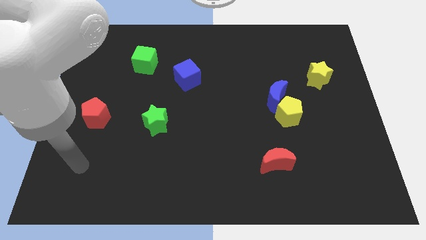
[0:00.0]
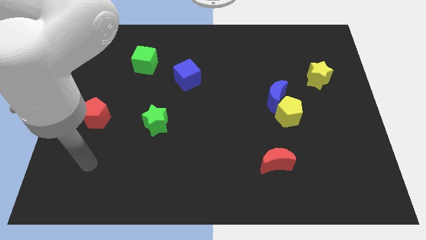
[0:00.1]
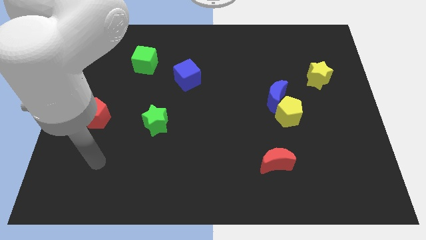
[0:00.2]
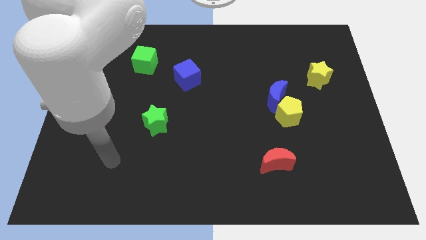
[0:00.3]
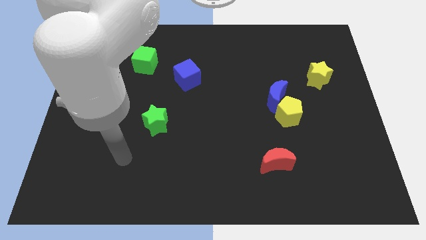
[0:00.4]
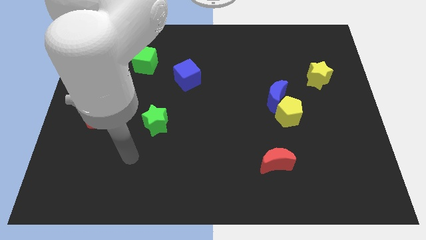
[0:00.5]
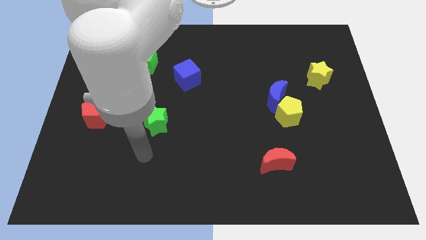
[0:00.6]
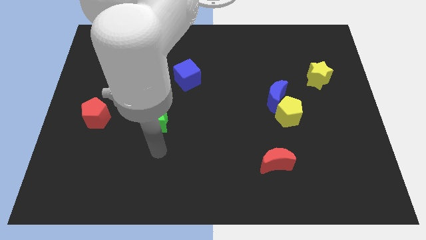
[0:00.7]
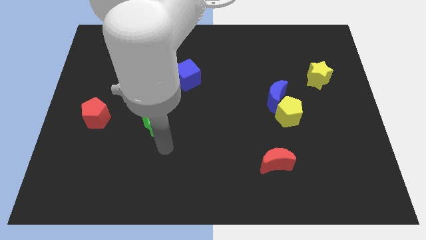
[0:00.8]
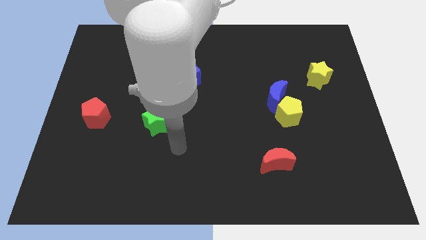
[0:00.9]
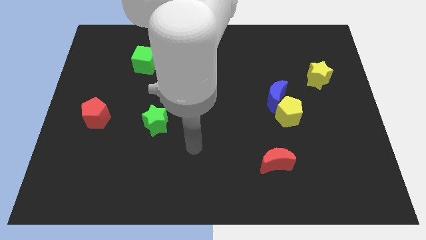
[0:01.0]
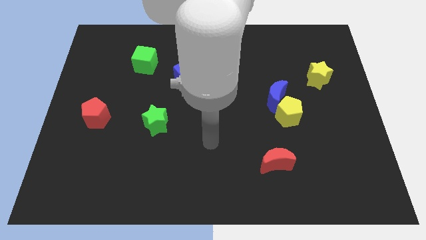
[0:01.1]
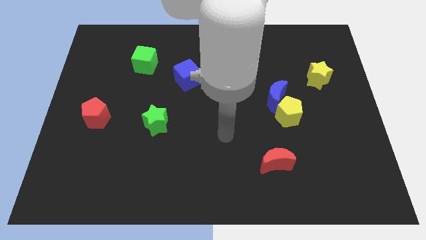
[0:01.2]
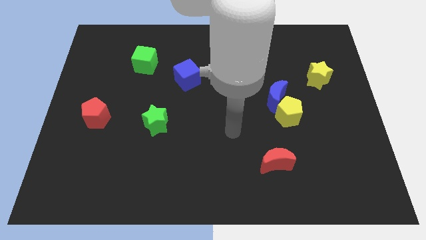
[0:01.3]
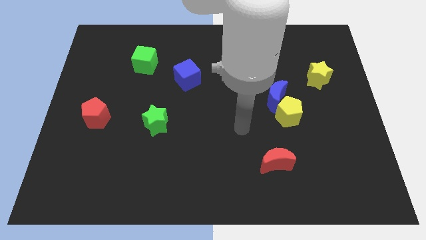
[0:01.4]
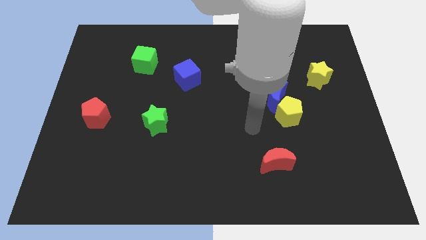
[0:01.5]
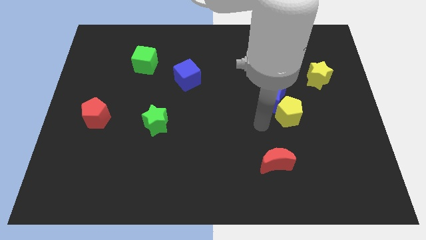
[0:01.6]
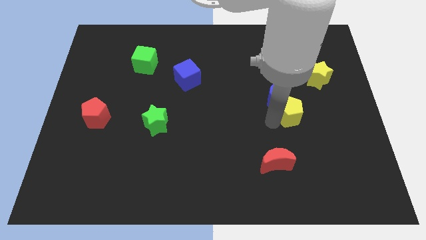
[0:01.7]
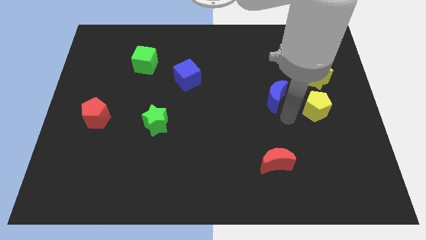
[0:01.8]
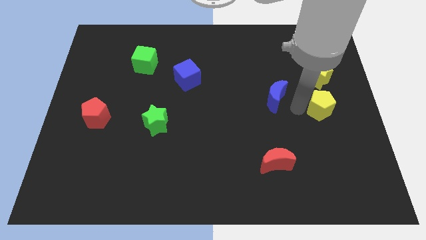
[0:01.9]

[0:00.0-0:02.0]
separate the blue moon from the yellow pentagon

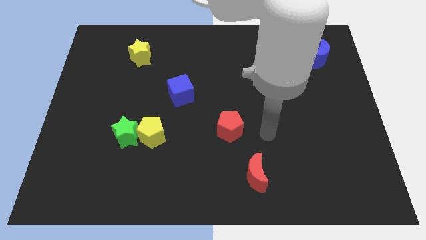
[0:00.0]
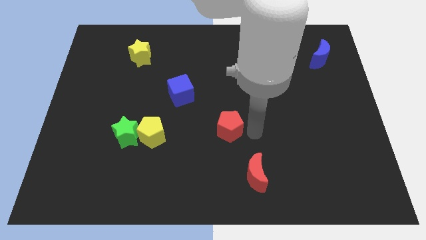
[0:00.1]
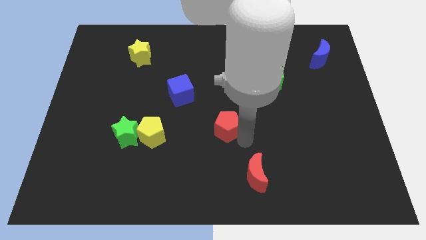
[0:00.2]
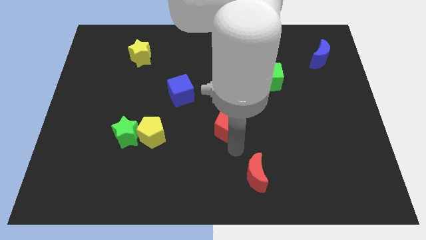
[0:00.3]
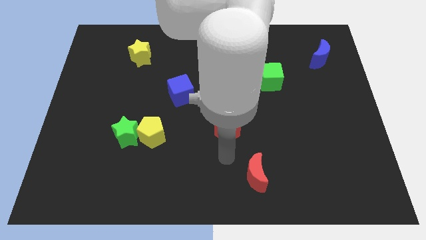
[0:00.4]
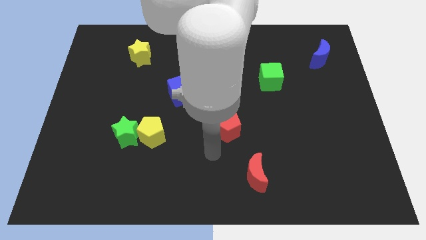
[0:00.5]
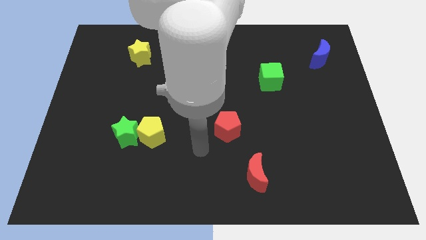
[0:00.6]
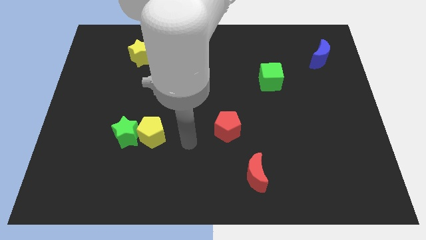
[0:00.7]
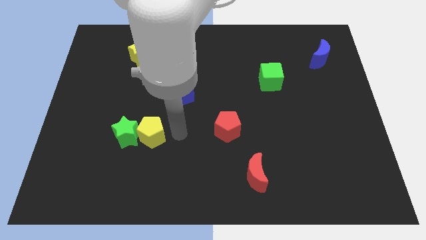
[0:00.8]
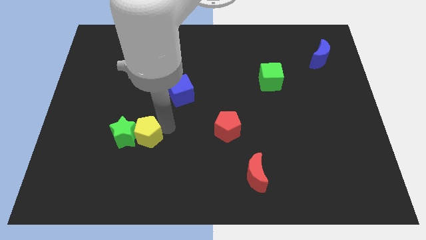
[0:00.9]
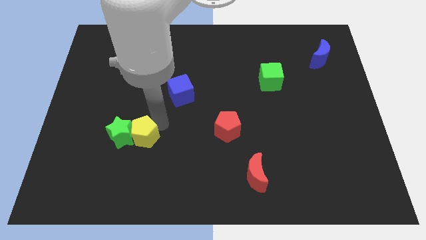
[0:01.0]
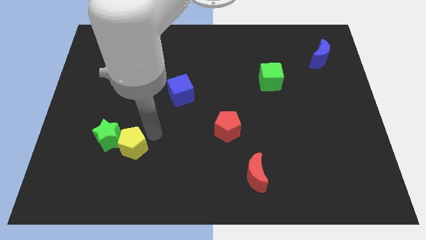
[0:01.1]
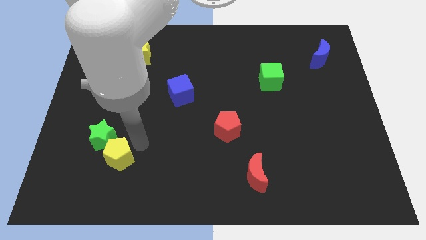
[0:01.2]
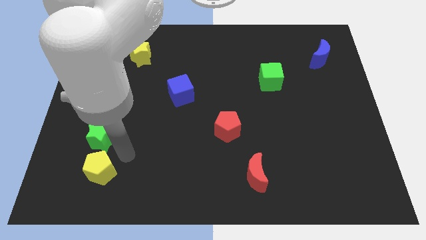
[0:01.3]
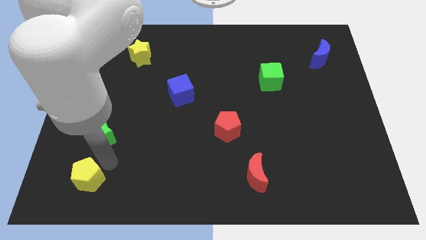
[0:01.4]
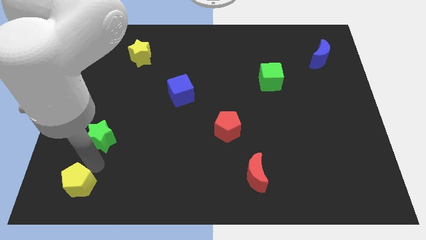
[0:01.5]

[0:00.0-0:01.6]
separate the green star from the yellow pentagon

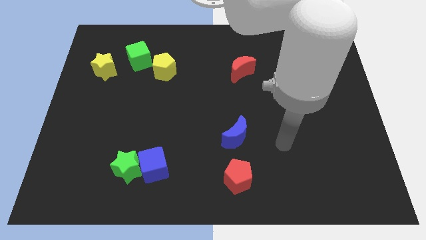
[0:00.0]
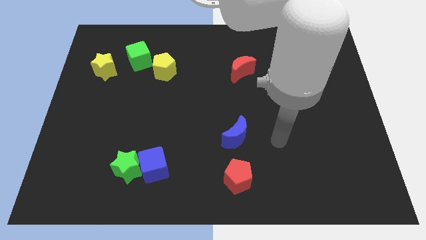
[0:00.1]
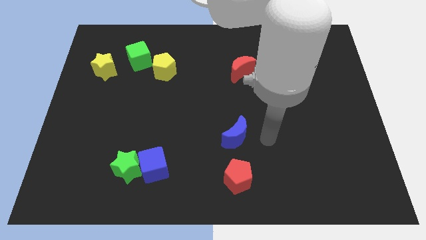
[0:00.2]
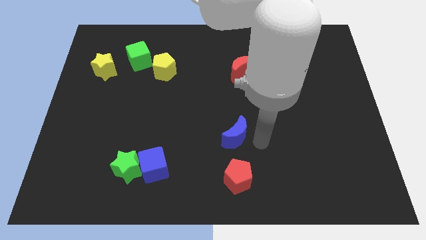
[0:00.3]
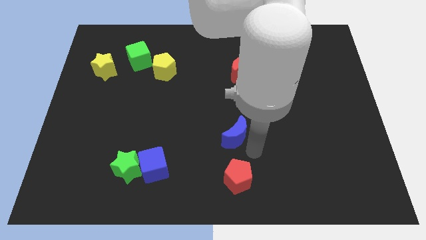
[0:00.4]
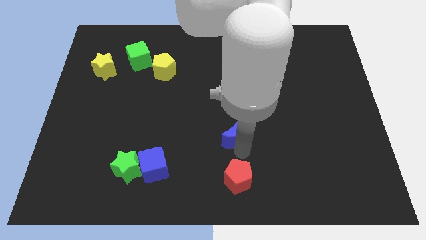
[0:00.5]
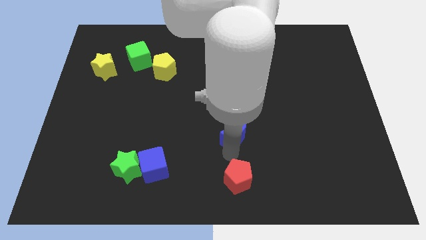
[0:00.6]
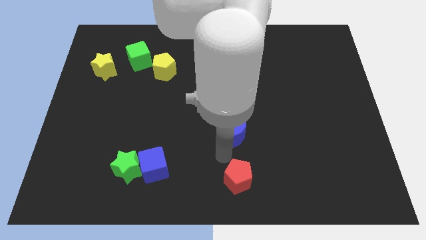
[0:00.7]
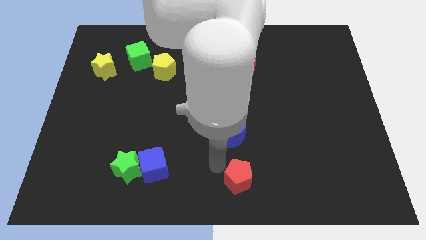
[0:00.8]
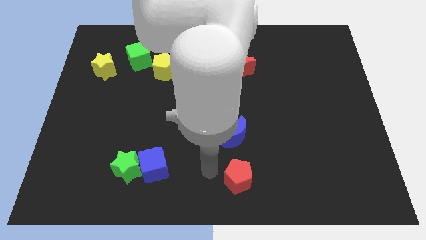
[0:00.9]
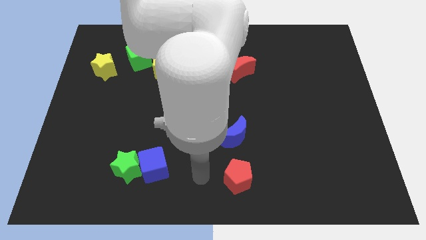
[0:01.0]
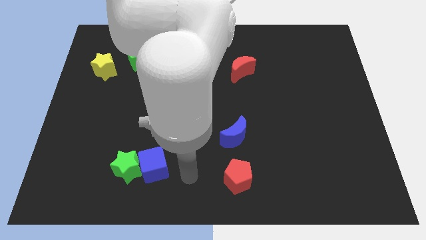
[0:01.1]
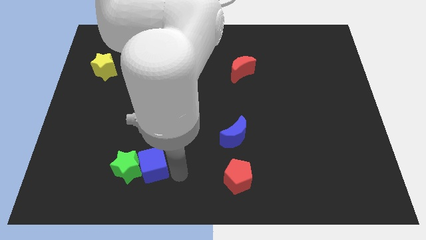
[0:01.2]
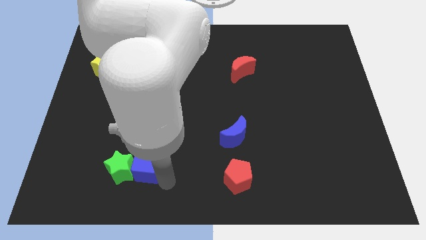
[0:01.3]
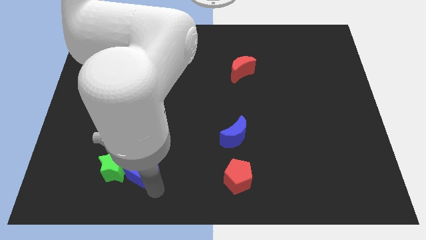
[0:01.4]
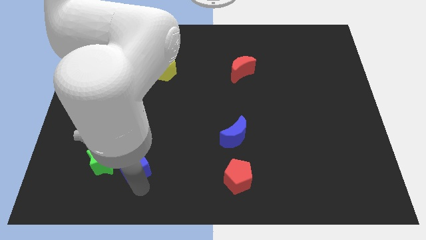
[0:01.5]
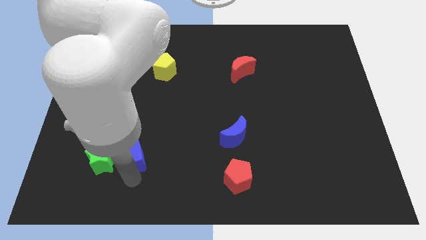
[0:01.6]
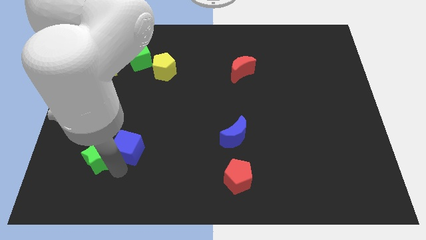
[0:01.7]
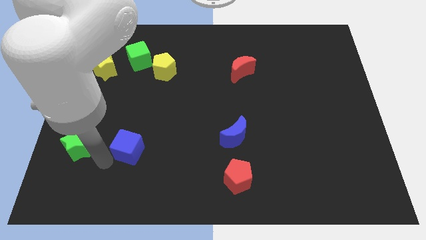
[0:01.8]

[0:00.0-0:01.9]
separate the blue cube from the green star

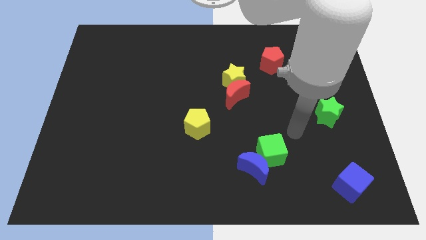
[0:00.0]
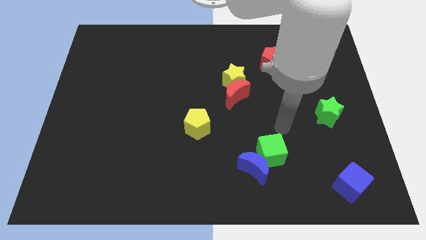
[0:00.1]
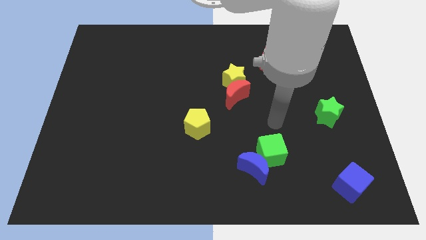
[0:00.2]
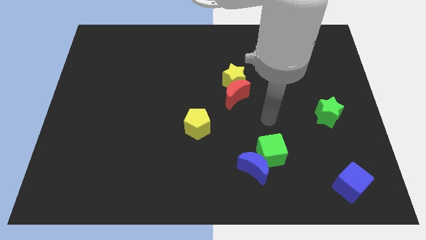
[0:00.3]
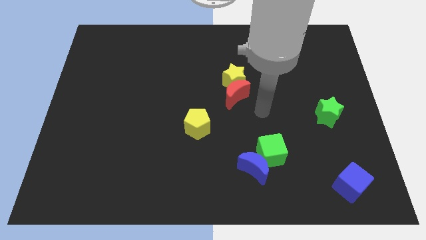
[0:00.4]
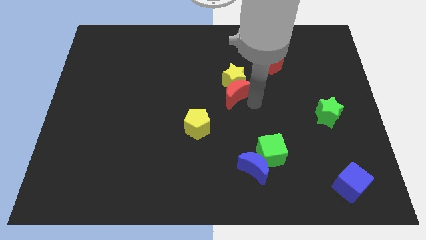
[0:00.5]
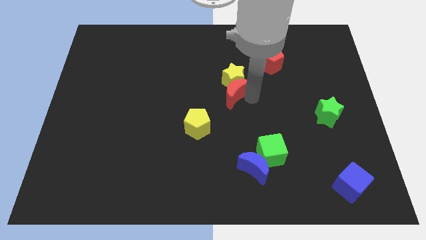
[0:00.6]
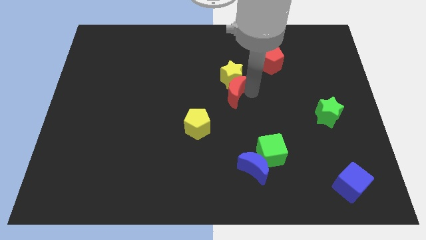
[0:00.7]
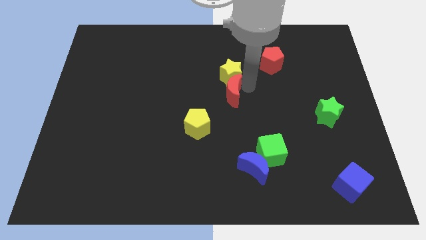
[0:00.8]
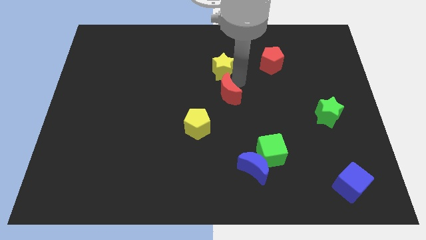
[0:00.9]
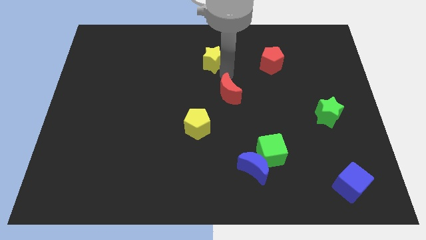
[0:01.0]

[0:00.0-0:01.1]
pull the red moon apart from the yellow star

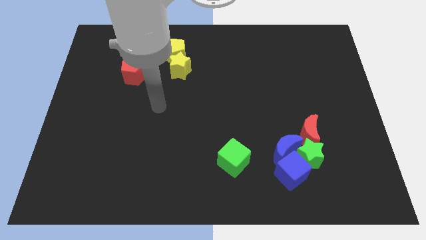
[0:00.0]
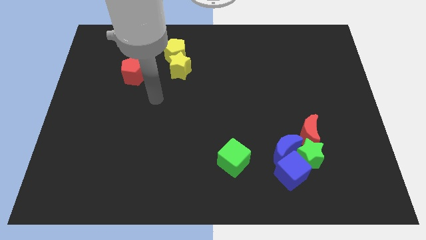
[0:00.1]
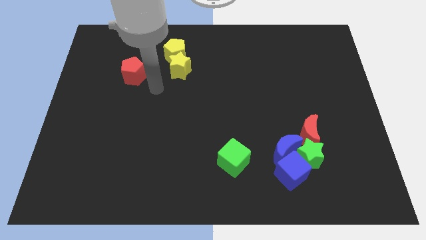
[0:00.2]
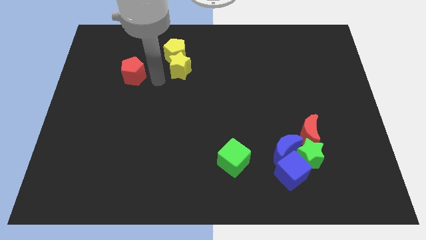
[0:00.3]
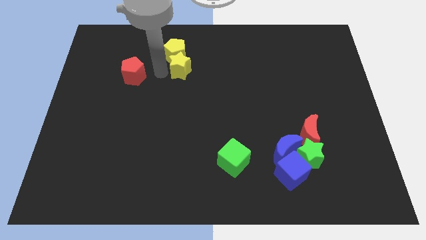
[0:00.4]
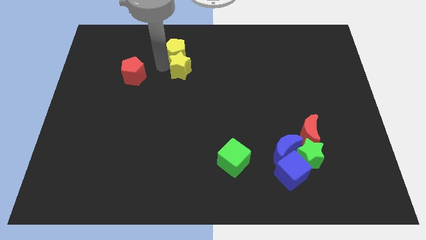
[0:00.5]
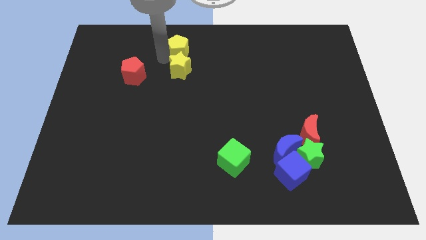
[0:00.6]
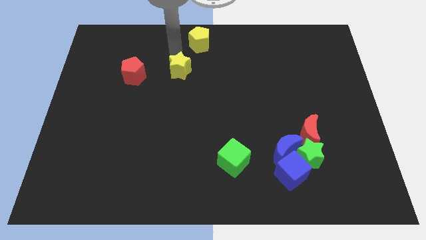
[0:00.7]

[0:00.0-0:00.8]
move the yellow star away from the yellow pentagon

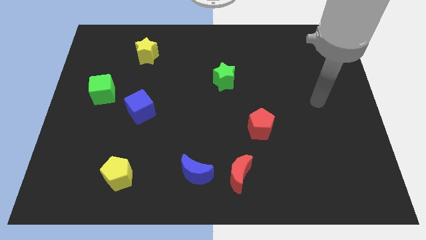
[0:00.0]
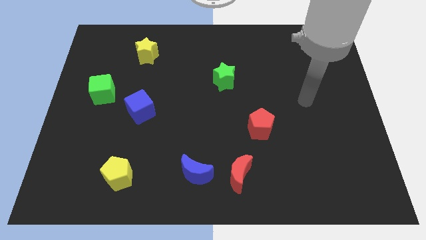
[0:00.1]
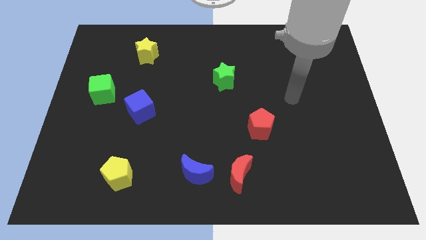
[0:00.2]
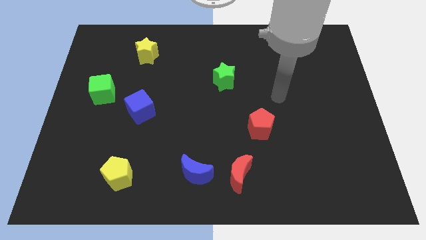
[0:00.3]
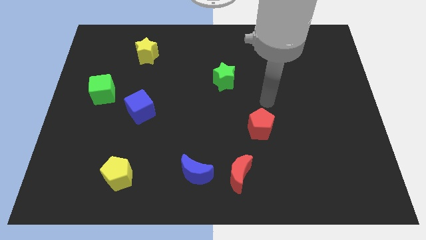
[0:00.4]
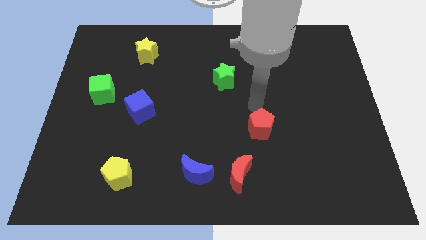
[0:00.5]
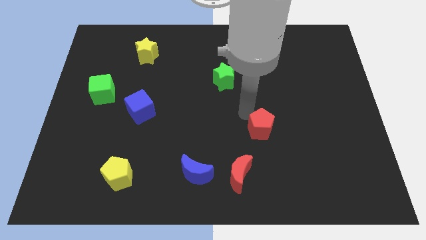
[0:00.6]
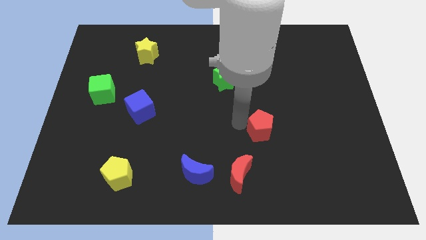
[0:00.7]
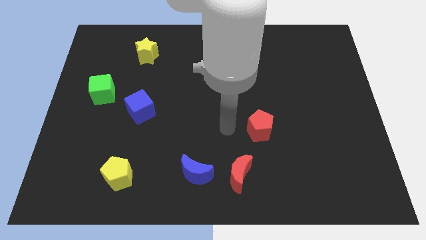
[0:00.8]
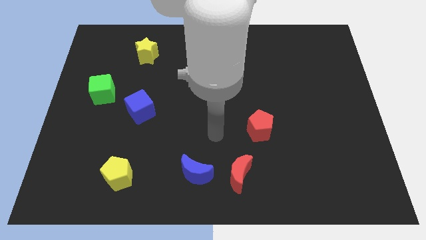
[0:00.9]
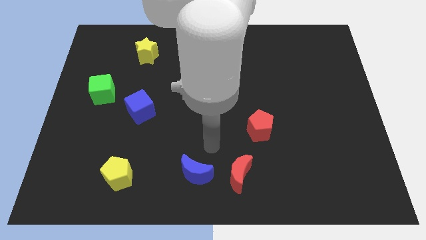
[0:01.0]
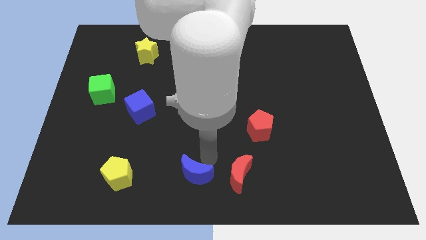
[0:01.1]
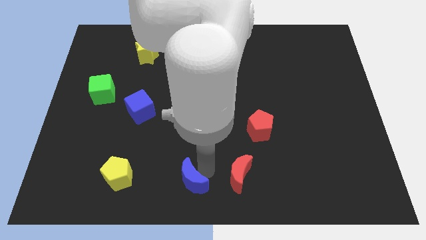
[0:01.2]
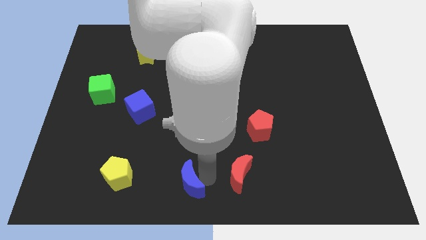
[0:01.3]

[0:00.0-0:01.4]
pull the red moon apart from the blue moon

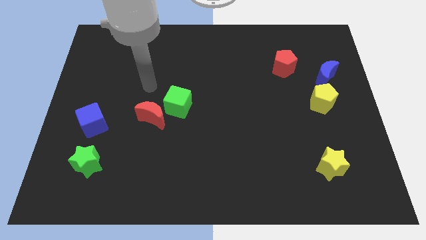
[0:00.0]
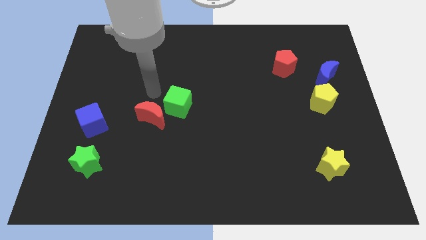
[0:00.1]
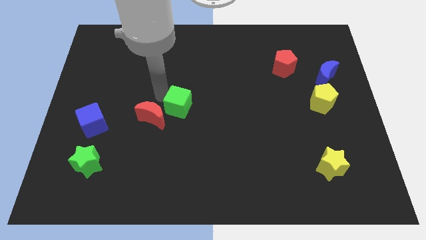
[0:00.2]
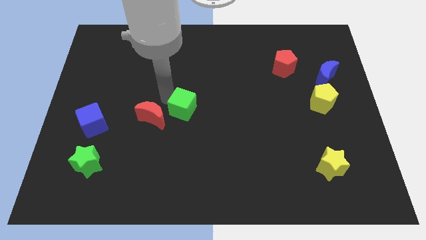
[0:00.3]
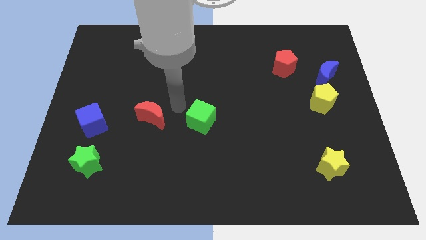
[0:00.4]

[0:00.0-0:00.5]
move the red moon away from the green cube
